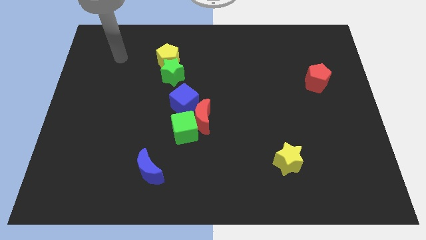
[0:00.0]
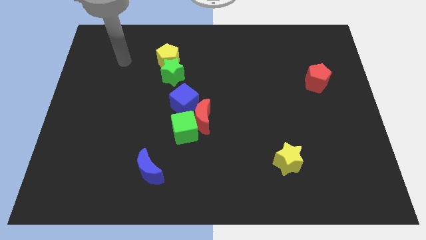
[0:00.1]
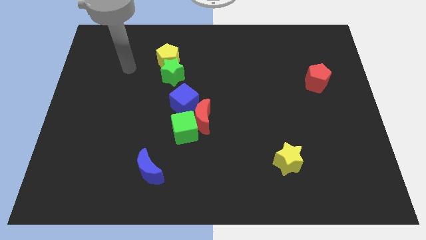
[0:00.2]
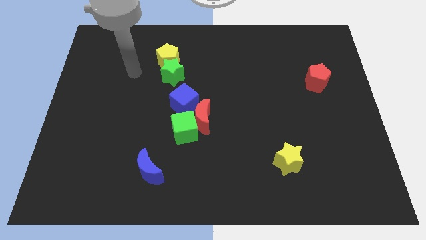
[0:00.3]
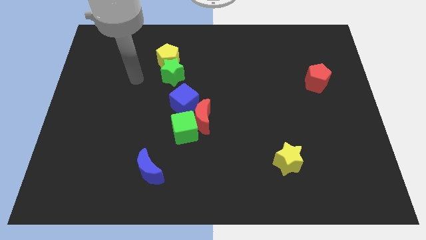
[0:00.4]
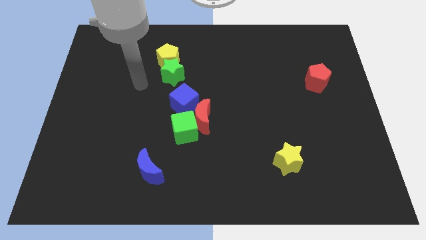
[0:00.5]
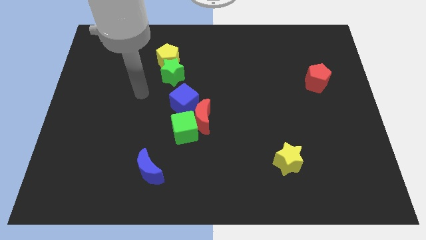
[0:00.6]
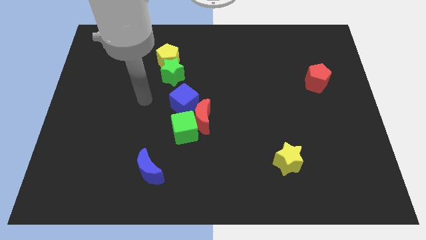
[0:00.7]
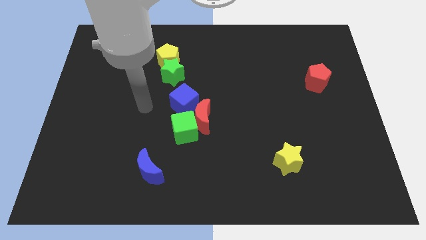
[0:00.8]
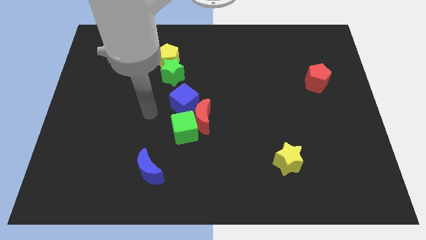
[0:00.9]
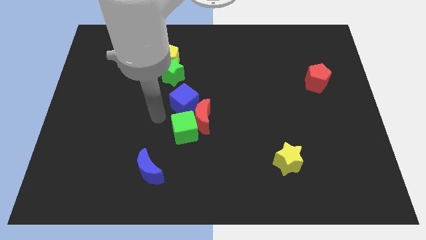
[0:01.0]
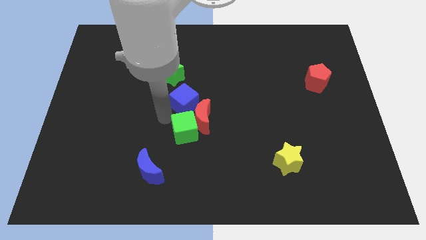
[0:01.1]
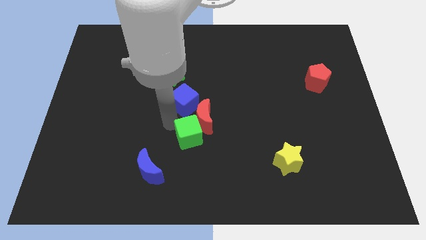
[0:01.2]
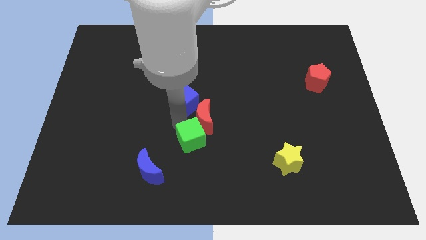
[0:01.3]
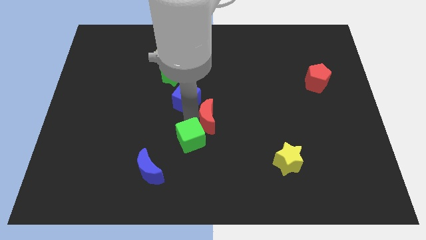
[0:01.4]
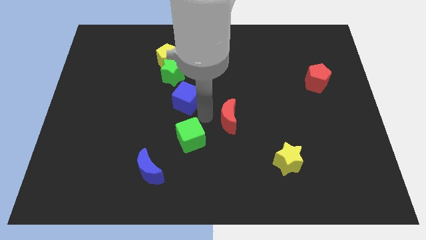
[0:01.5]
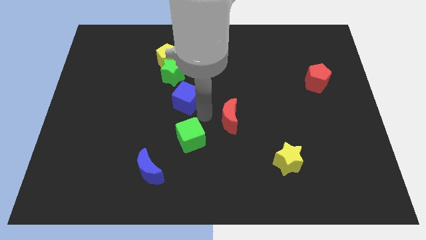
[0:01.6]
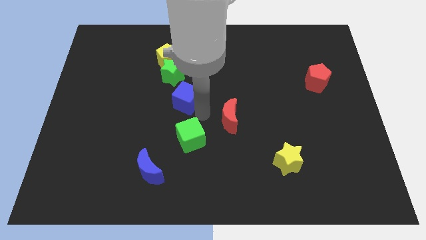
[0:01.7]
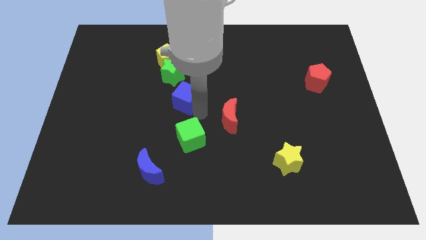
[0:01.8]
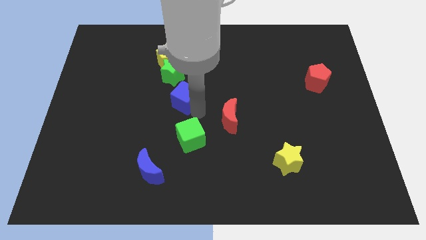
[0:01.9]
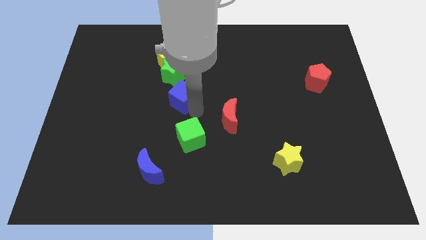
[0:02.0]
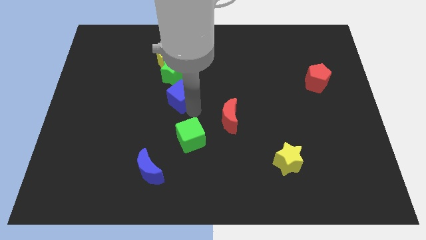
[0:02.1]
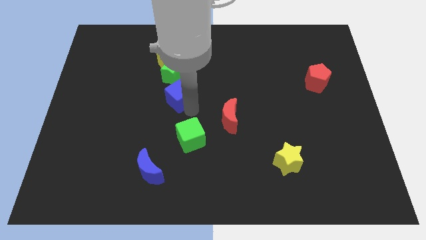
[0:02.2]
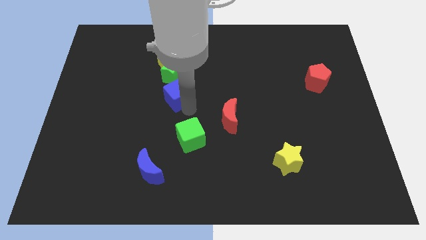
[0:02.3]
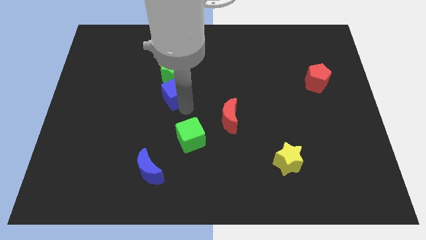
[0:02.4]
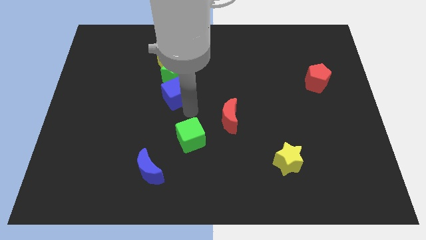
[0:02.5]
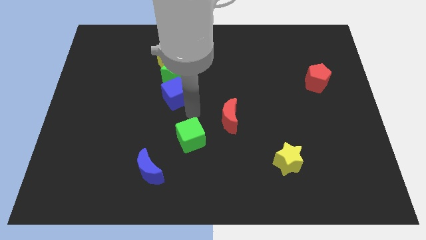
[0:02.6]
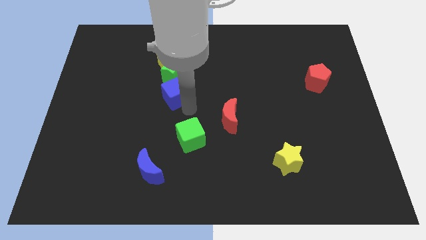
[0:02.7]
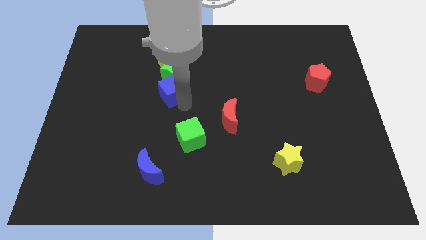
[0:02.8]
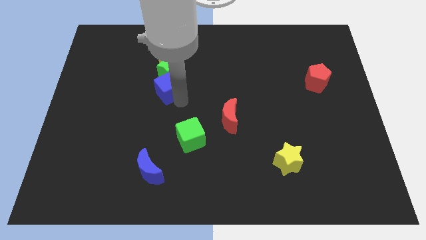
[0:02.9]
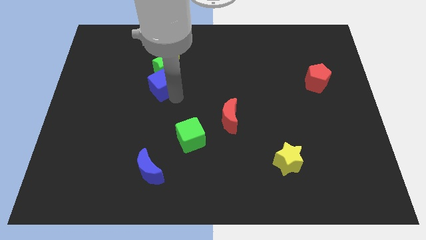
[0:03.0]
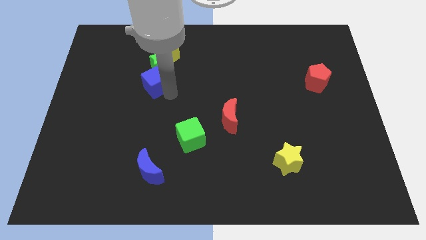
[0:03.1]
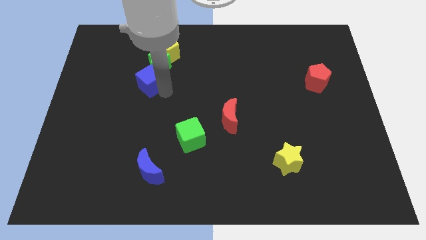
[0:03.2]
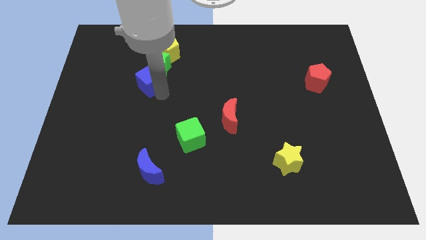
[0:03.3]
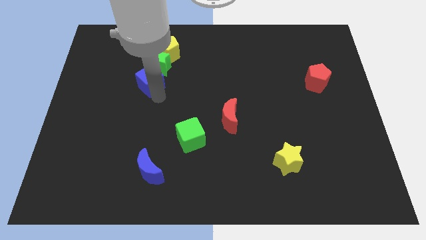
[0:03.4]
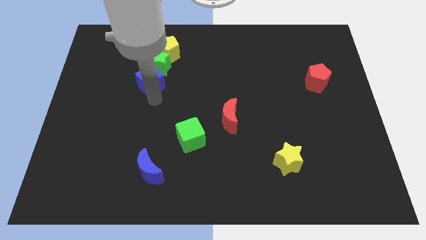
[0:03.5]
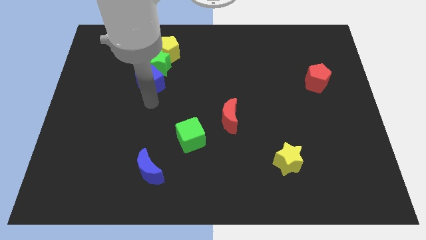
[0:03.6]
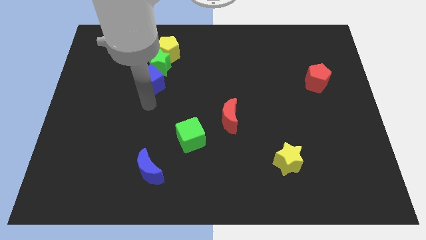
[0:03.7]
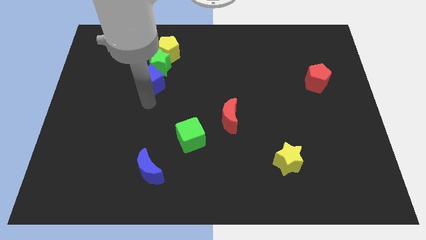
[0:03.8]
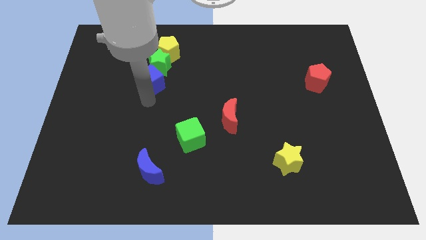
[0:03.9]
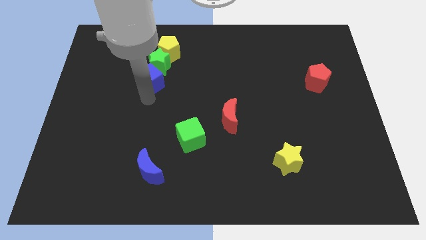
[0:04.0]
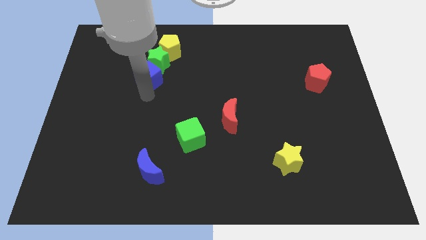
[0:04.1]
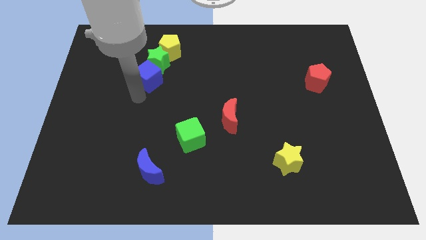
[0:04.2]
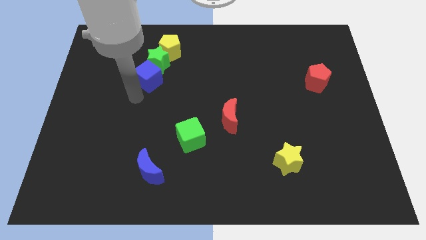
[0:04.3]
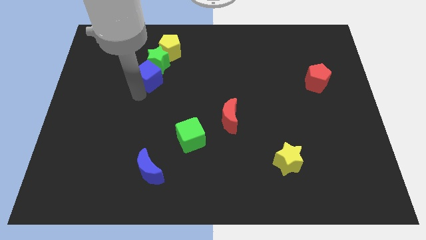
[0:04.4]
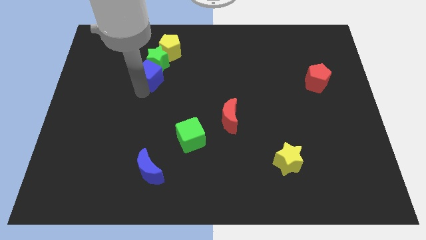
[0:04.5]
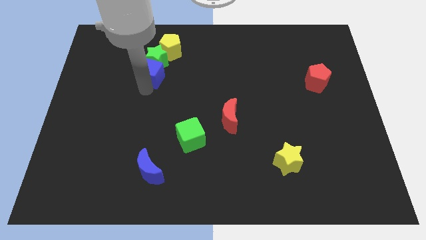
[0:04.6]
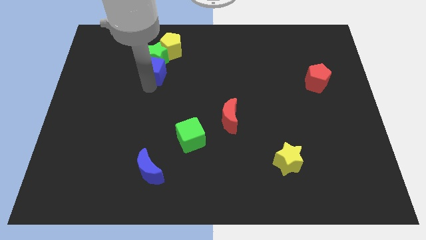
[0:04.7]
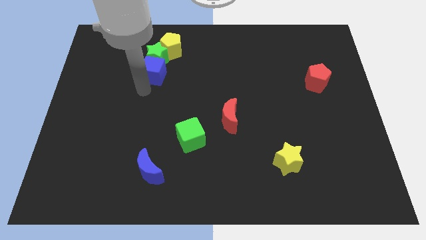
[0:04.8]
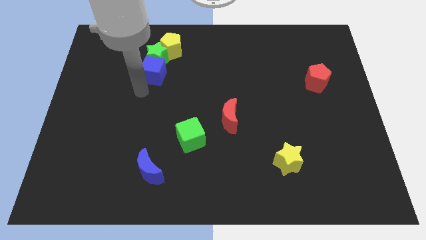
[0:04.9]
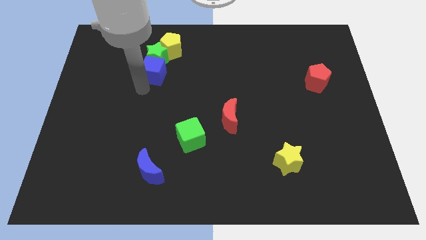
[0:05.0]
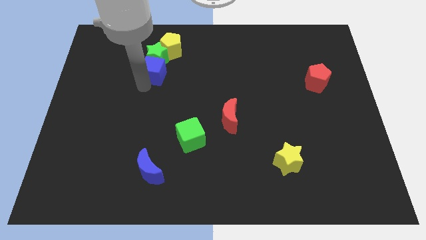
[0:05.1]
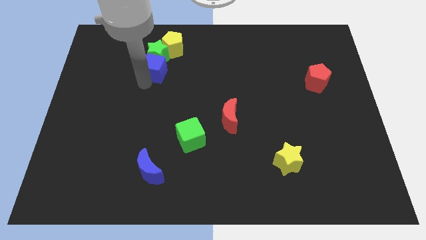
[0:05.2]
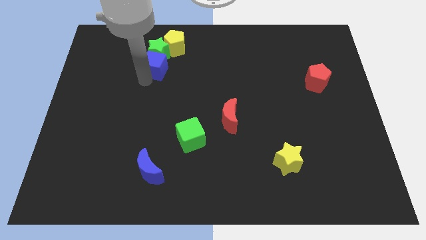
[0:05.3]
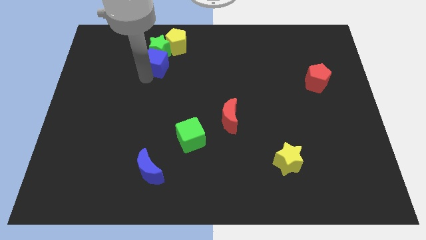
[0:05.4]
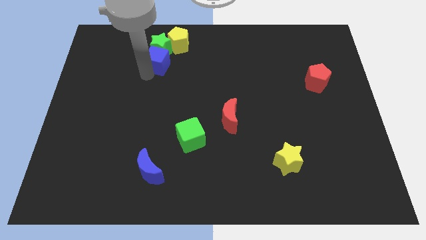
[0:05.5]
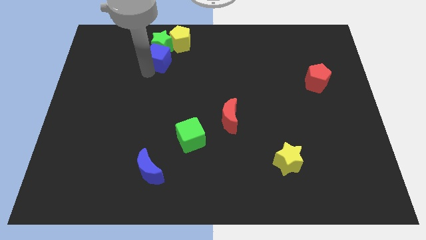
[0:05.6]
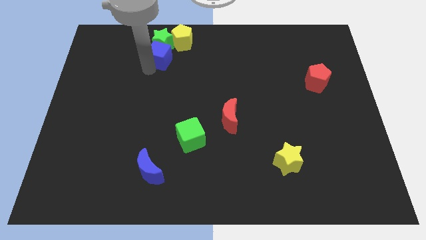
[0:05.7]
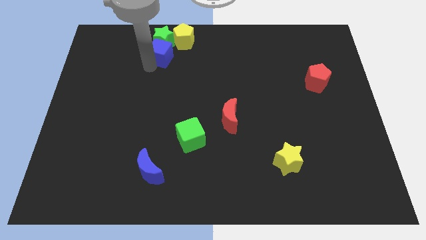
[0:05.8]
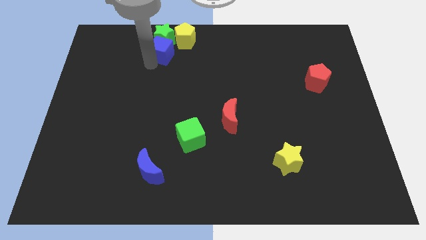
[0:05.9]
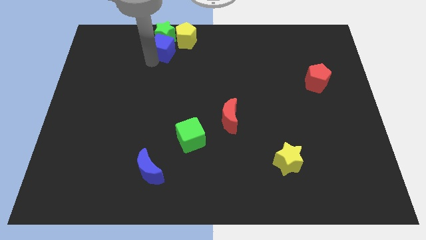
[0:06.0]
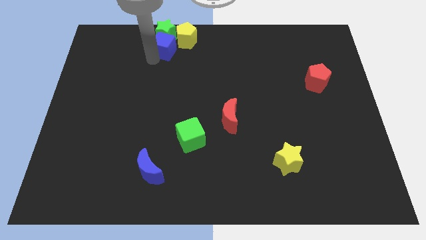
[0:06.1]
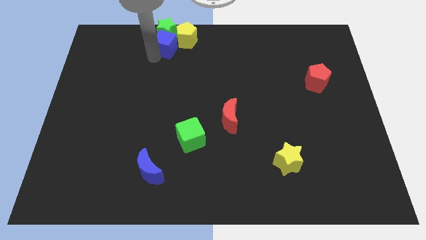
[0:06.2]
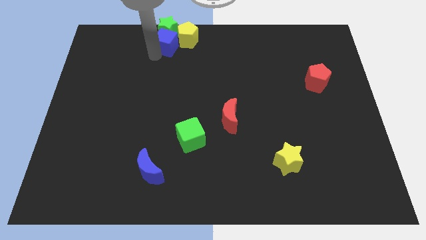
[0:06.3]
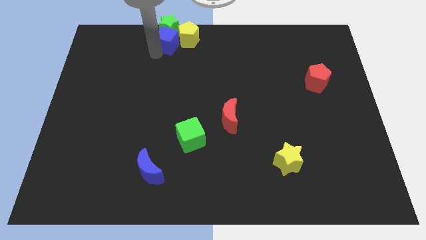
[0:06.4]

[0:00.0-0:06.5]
slide the blue cube next to the yellow pentagon

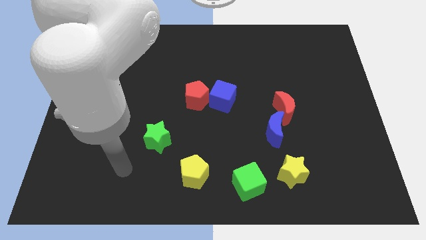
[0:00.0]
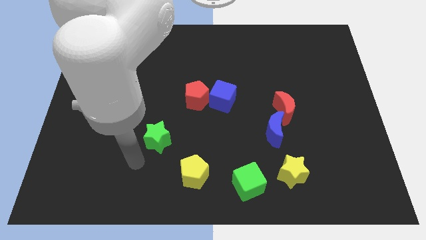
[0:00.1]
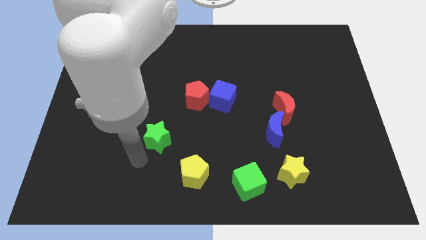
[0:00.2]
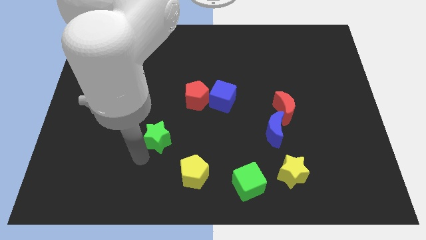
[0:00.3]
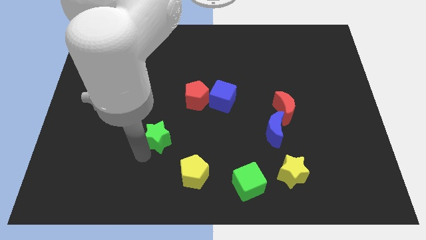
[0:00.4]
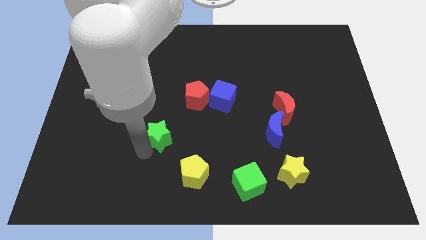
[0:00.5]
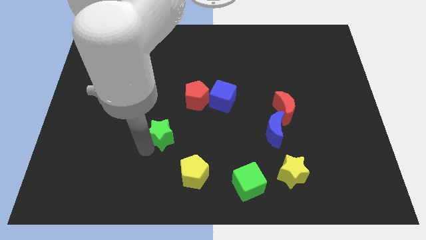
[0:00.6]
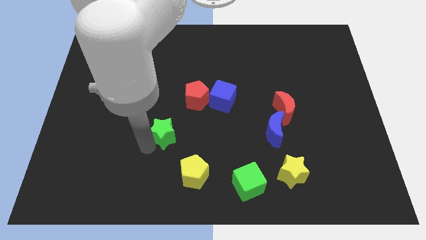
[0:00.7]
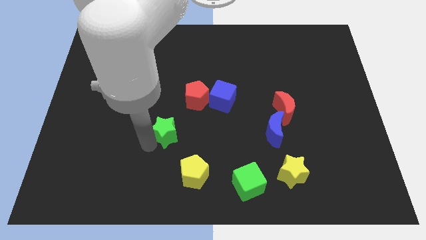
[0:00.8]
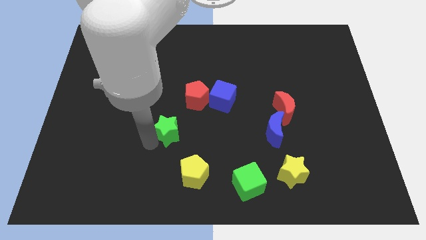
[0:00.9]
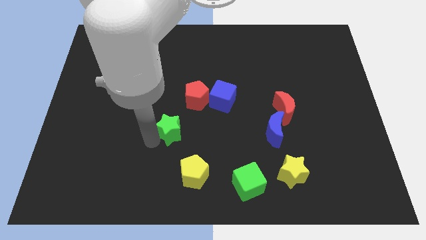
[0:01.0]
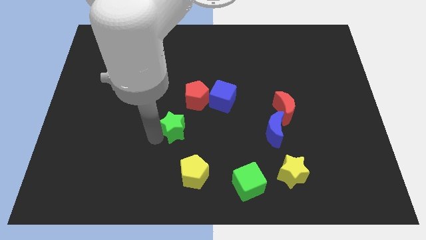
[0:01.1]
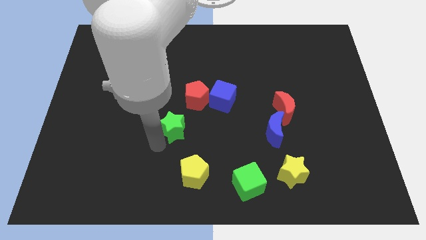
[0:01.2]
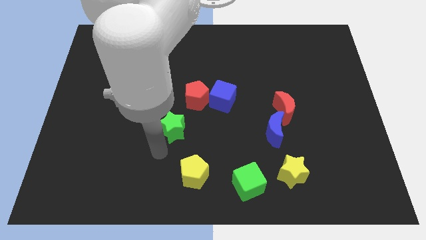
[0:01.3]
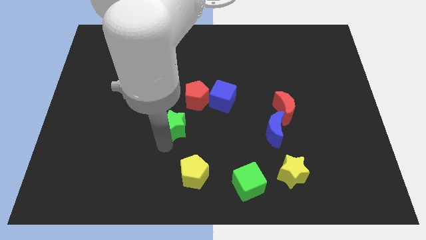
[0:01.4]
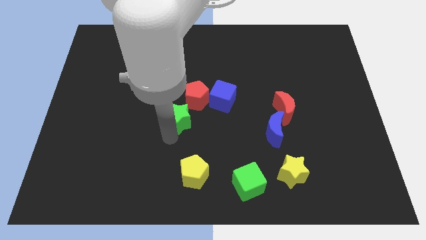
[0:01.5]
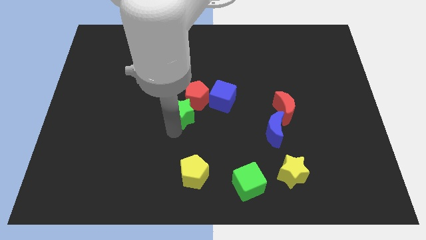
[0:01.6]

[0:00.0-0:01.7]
push the green star close to the red pentagon
